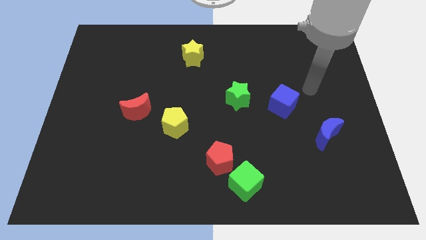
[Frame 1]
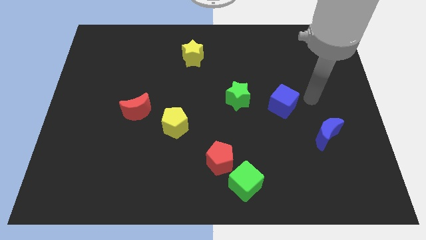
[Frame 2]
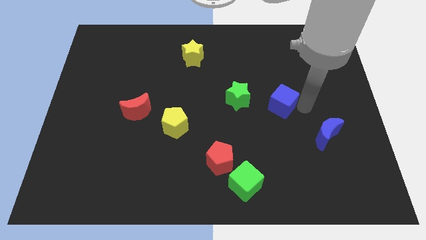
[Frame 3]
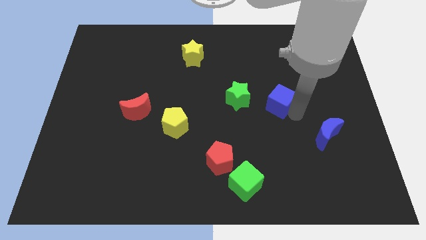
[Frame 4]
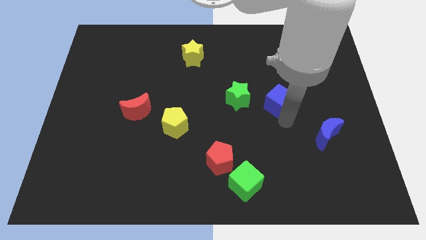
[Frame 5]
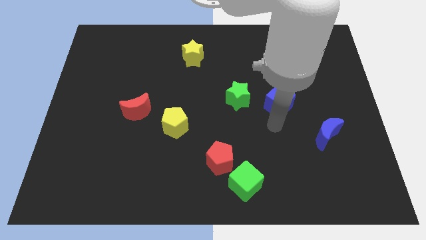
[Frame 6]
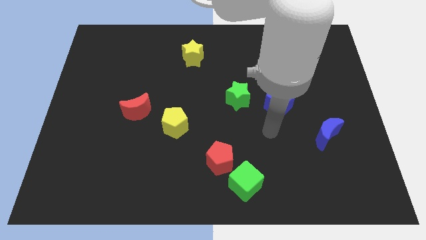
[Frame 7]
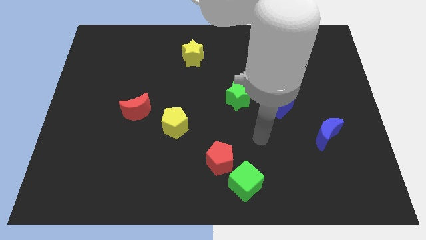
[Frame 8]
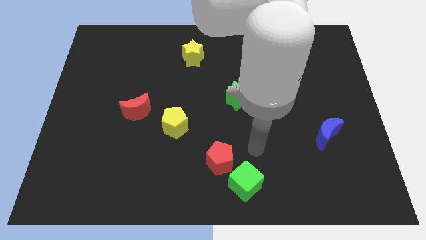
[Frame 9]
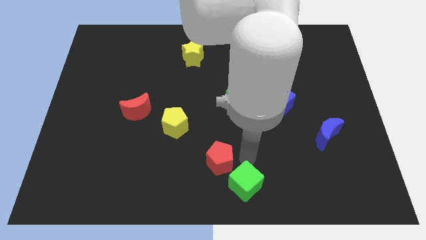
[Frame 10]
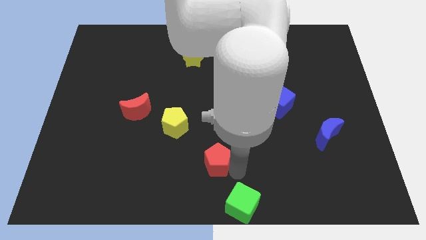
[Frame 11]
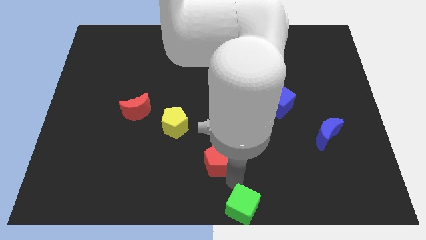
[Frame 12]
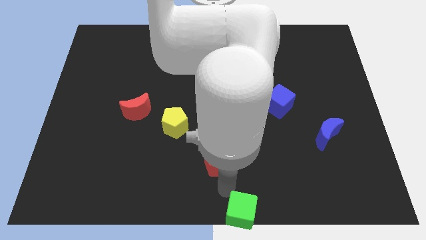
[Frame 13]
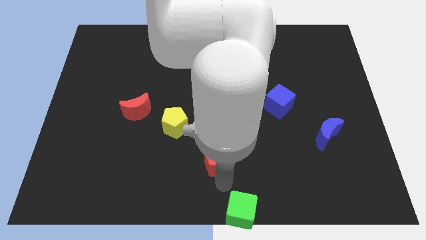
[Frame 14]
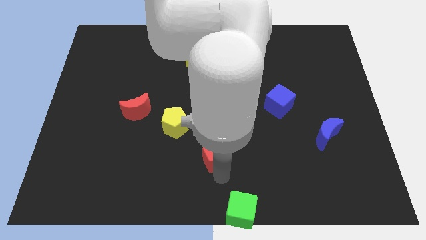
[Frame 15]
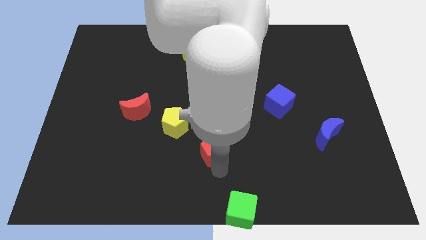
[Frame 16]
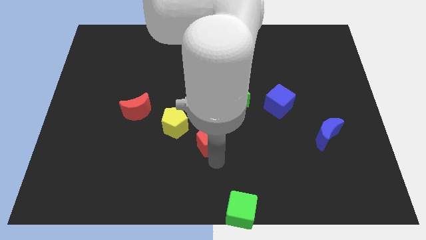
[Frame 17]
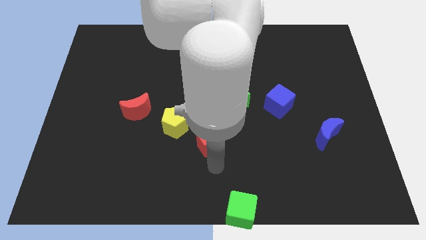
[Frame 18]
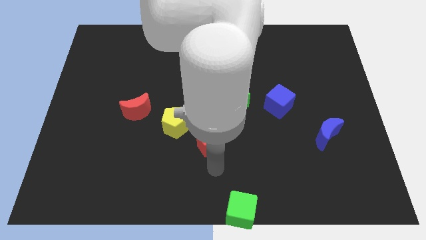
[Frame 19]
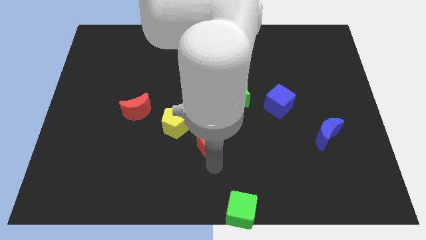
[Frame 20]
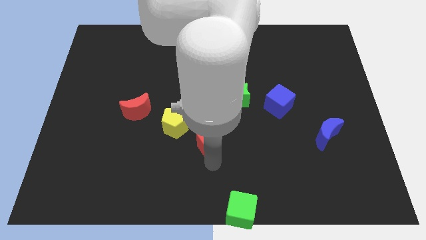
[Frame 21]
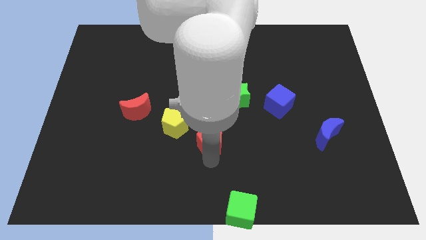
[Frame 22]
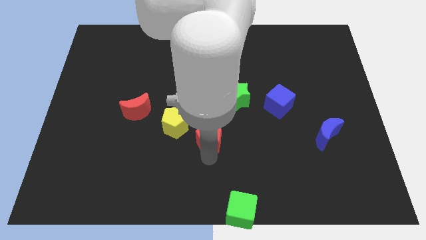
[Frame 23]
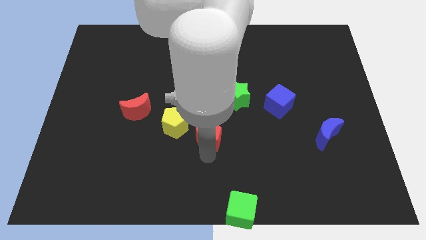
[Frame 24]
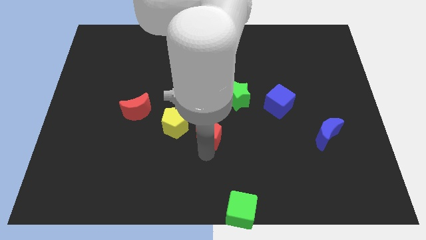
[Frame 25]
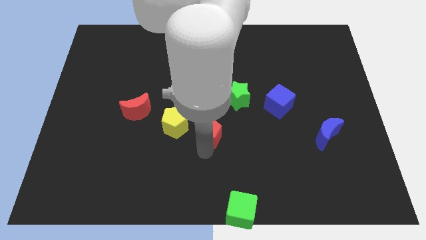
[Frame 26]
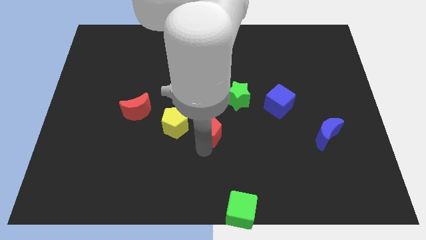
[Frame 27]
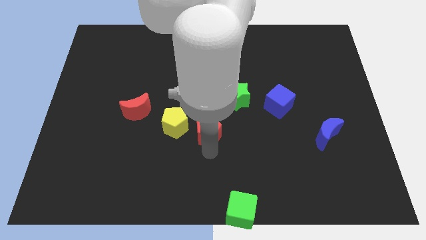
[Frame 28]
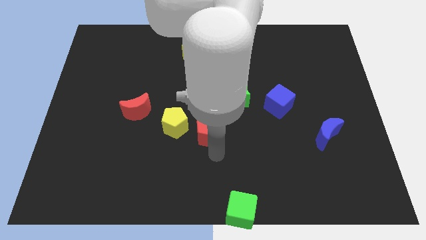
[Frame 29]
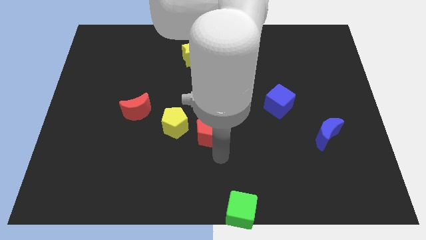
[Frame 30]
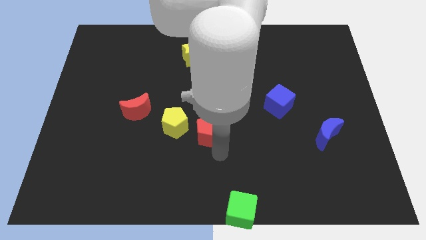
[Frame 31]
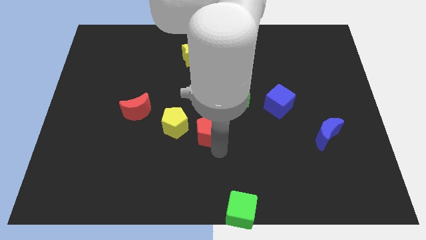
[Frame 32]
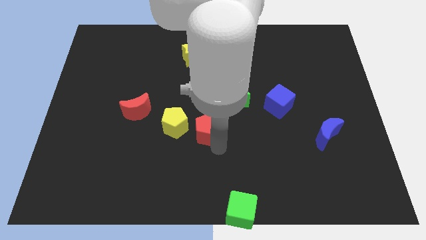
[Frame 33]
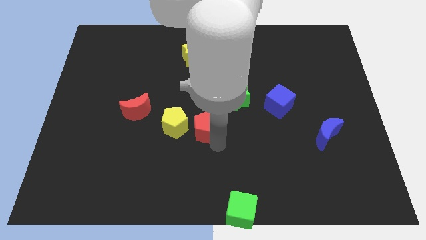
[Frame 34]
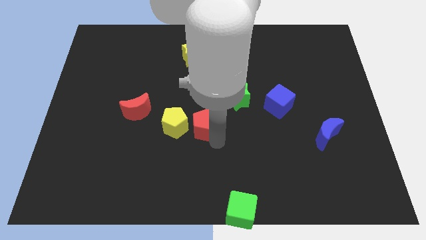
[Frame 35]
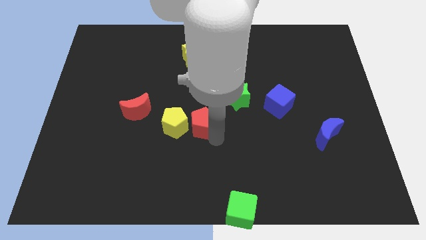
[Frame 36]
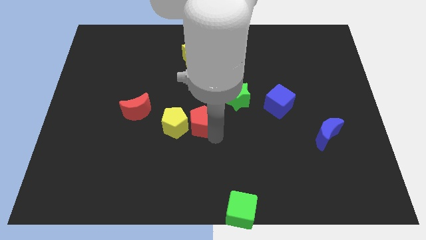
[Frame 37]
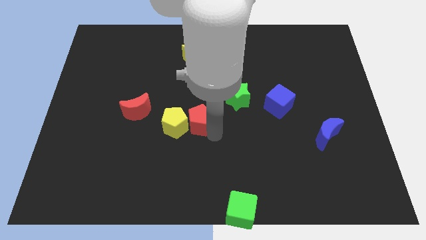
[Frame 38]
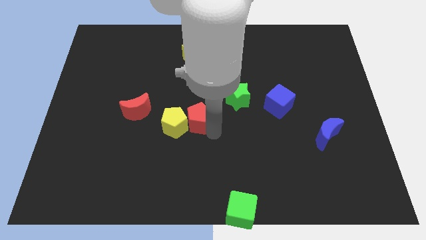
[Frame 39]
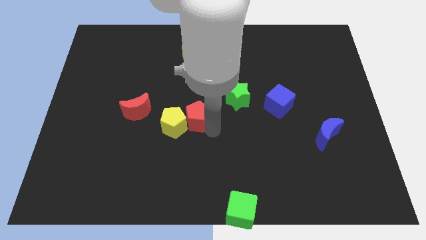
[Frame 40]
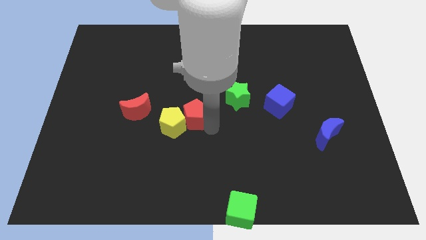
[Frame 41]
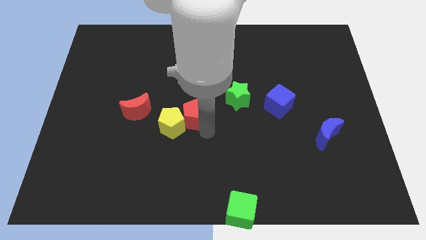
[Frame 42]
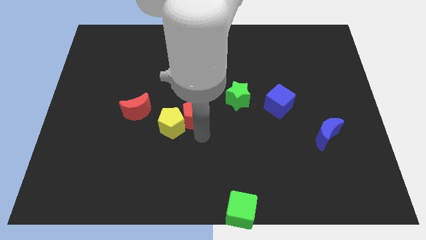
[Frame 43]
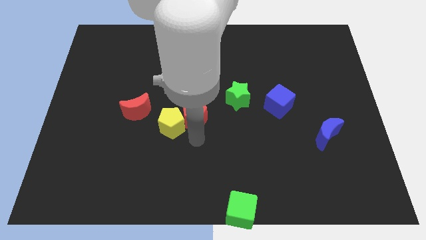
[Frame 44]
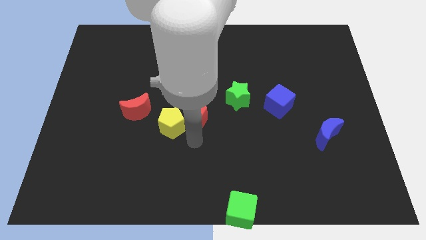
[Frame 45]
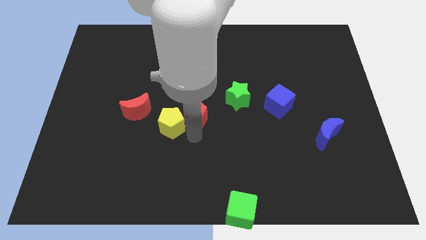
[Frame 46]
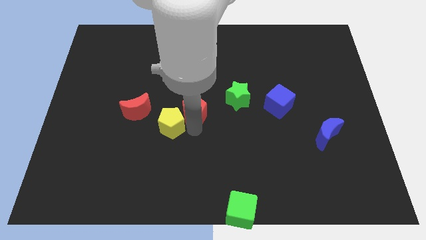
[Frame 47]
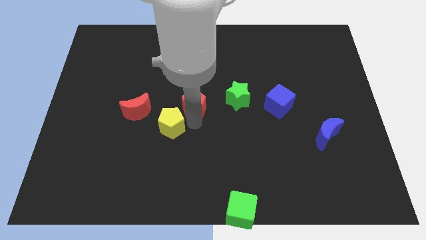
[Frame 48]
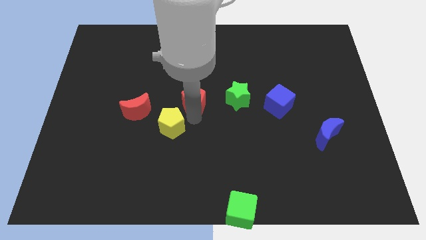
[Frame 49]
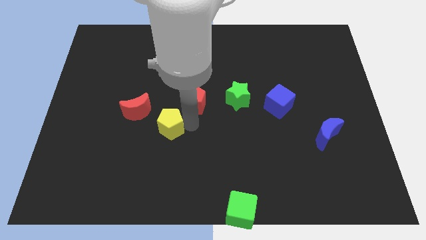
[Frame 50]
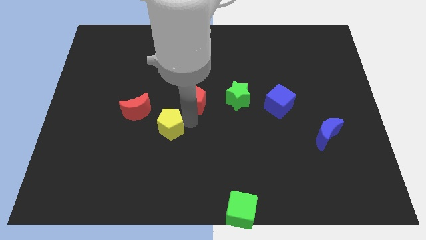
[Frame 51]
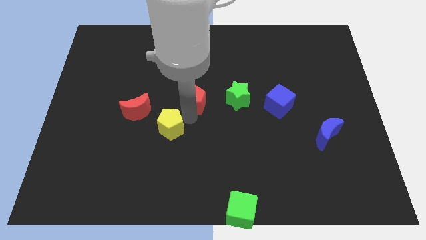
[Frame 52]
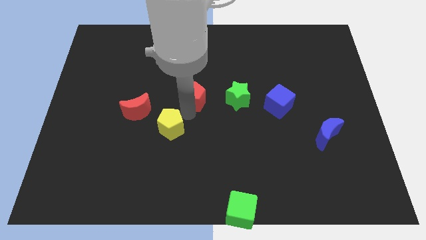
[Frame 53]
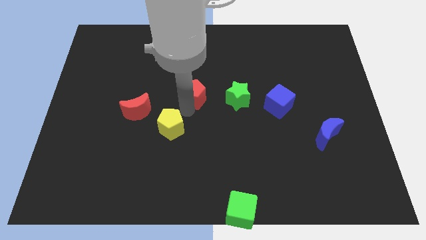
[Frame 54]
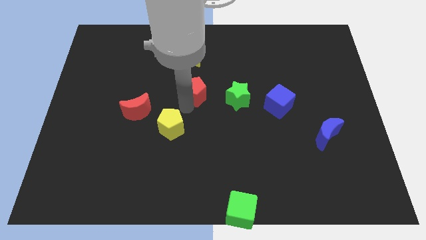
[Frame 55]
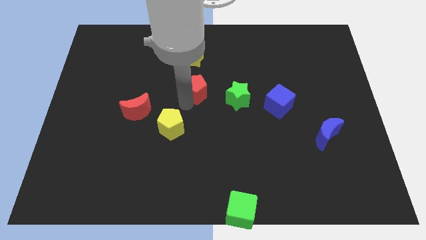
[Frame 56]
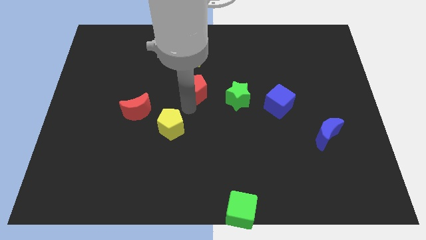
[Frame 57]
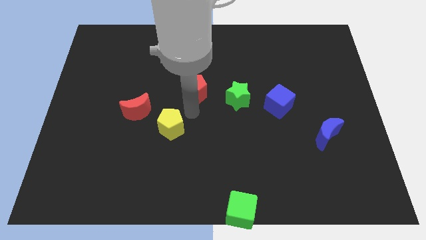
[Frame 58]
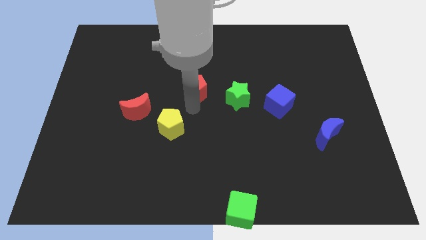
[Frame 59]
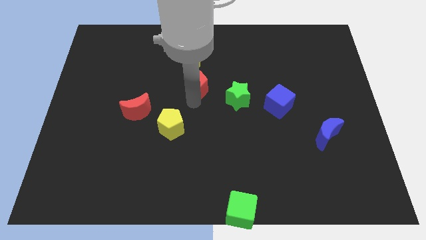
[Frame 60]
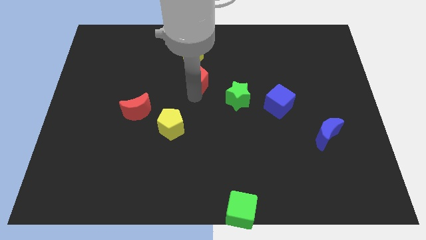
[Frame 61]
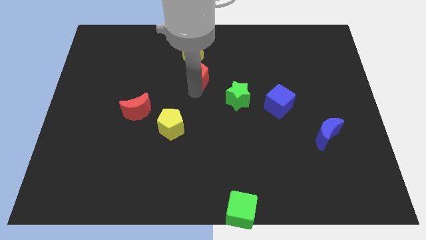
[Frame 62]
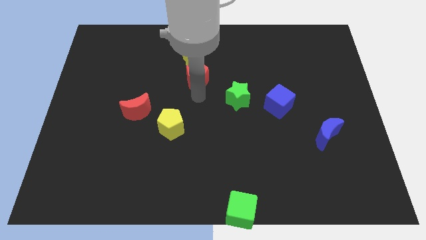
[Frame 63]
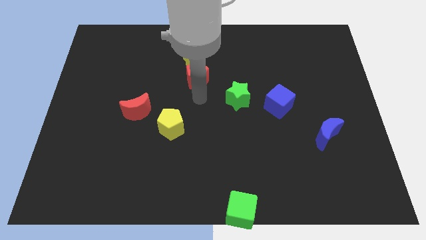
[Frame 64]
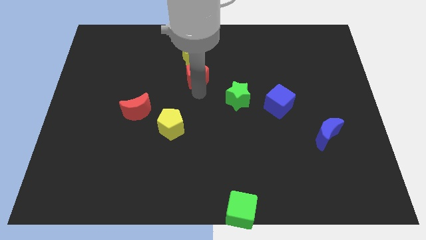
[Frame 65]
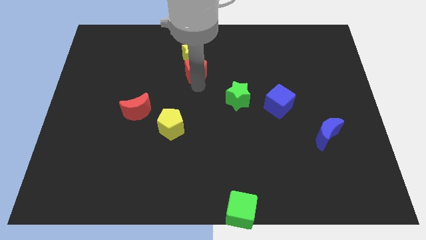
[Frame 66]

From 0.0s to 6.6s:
push the red pentagon to the yellow star

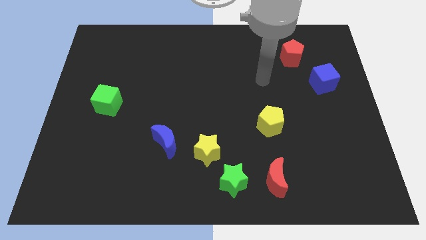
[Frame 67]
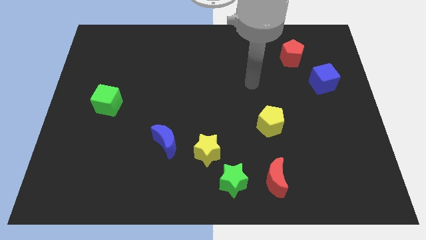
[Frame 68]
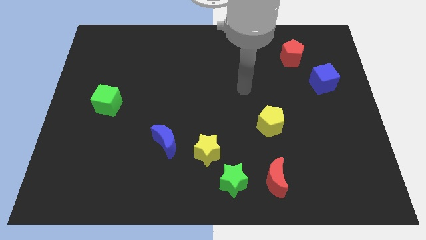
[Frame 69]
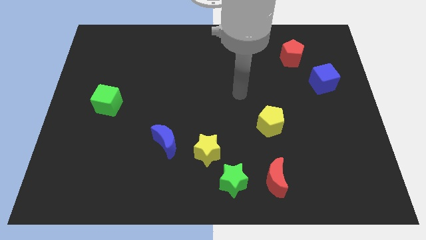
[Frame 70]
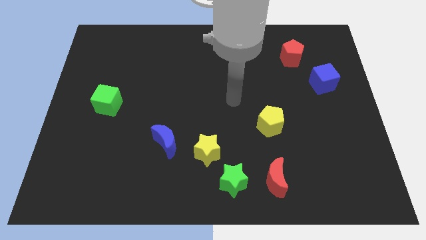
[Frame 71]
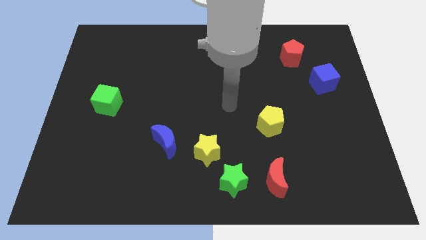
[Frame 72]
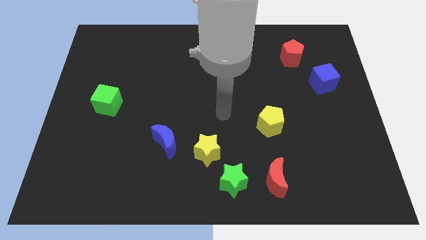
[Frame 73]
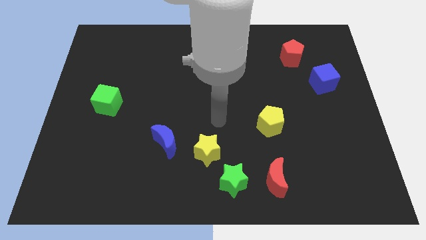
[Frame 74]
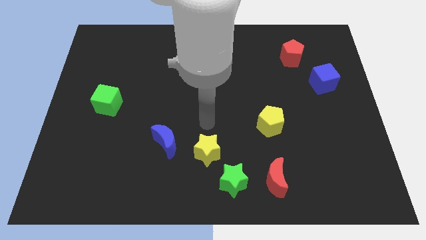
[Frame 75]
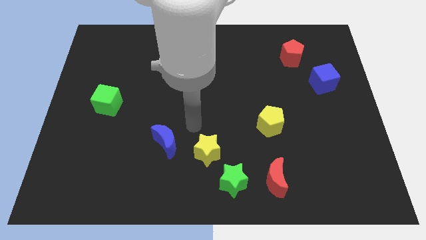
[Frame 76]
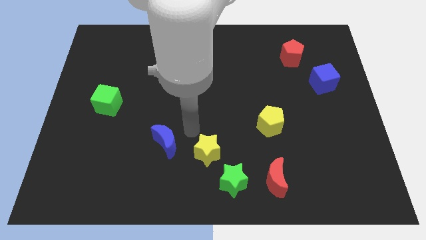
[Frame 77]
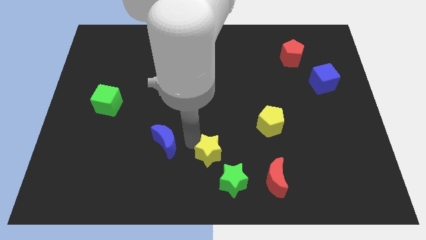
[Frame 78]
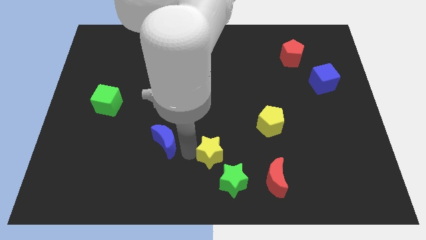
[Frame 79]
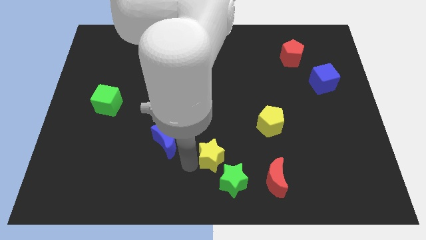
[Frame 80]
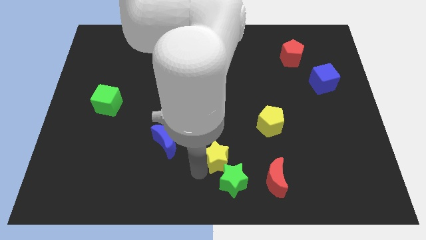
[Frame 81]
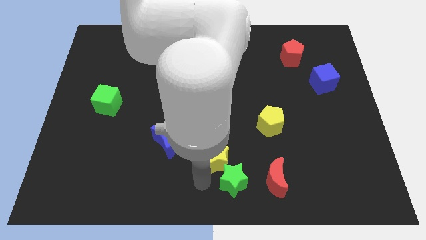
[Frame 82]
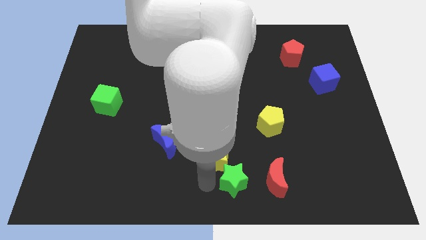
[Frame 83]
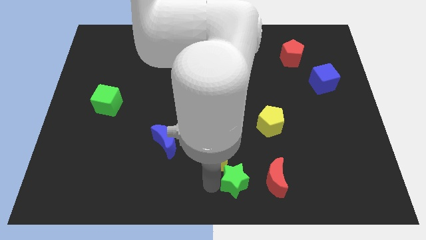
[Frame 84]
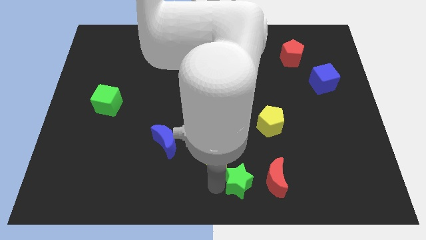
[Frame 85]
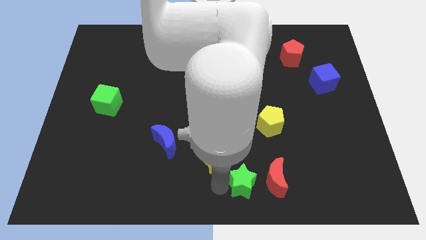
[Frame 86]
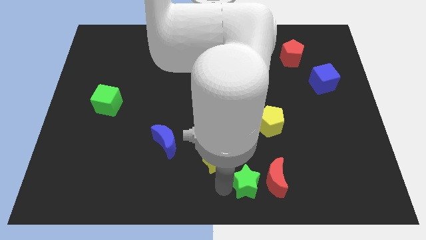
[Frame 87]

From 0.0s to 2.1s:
slide the green star towards the red moon
